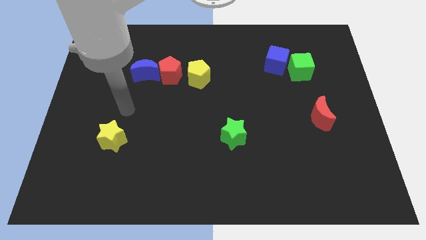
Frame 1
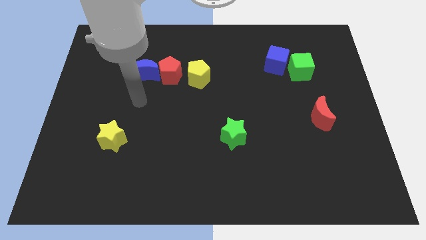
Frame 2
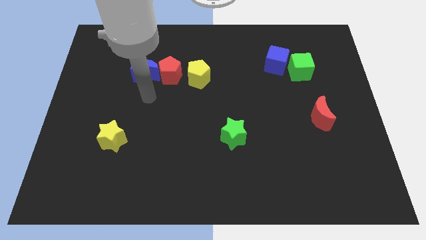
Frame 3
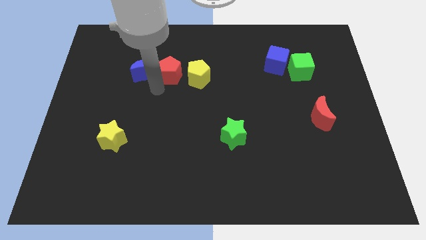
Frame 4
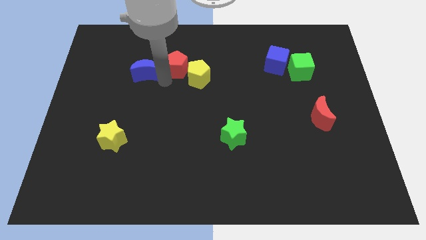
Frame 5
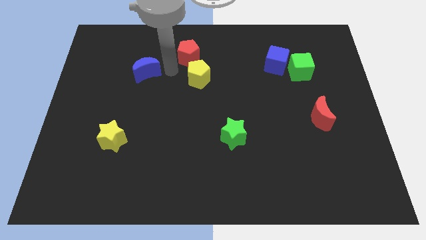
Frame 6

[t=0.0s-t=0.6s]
separate the blue moon from the red pentagon

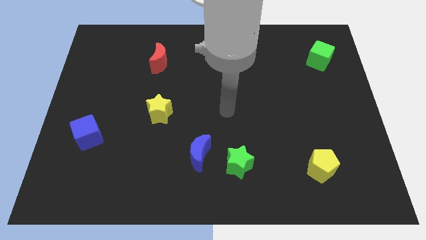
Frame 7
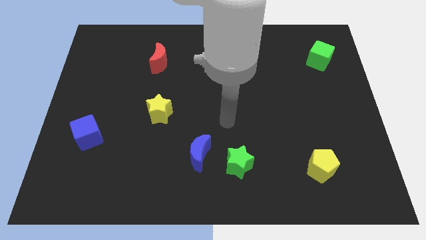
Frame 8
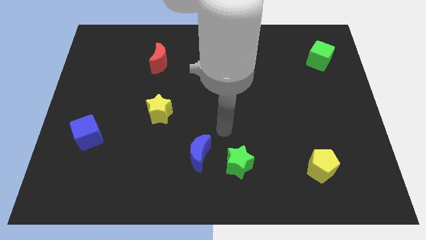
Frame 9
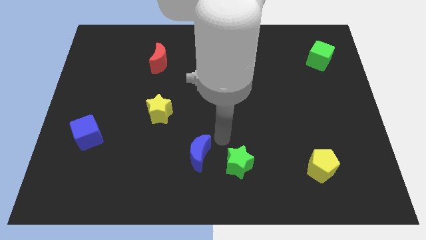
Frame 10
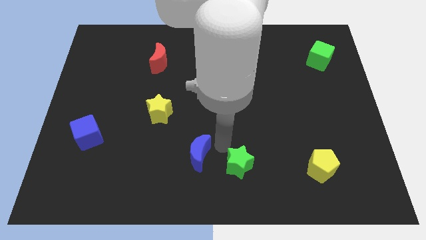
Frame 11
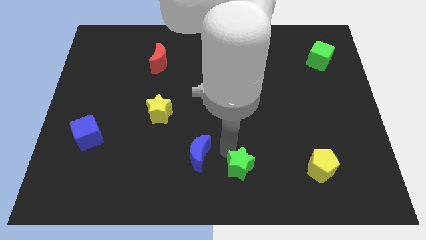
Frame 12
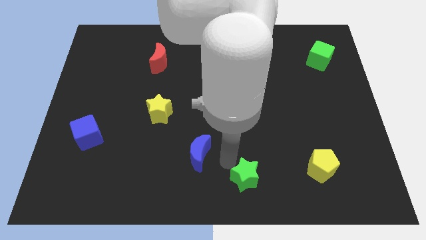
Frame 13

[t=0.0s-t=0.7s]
separate the blue moon from the green star

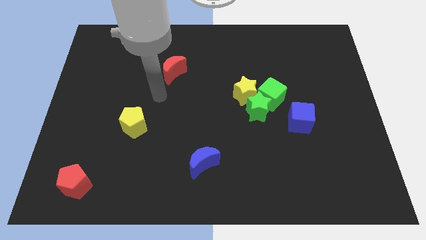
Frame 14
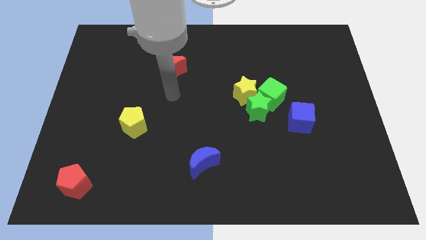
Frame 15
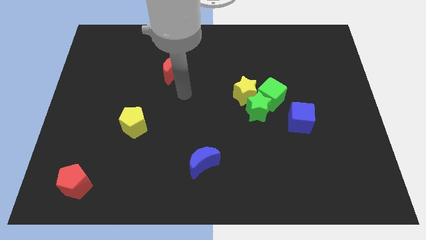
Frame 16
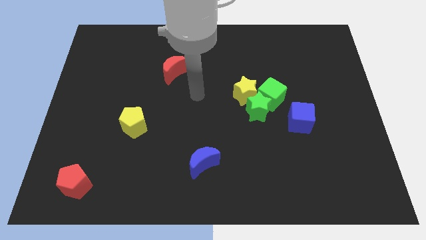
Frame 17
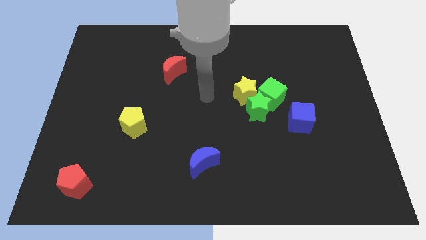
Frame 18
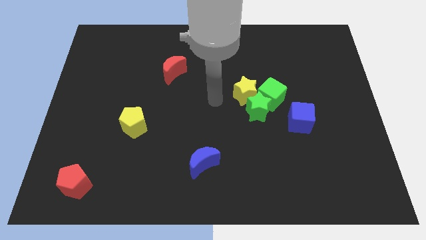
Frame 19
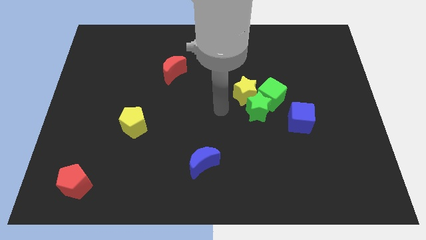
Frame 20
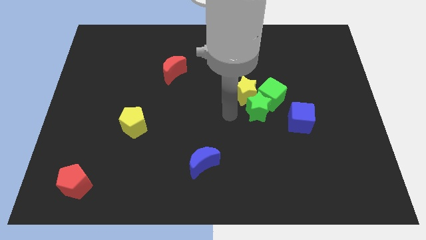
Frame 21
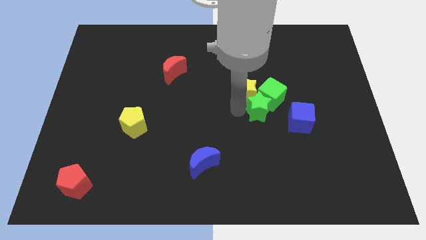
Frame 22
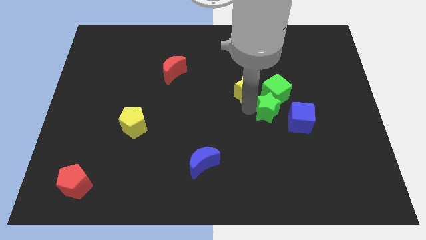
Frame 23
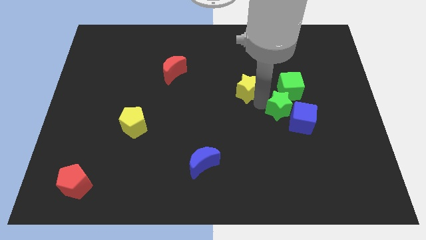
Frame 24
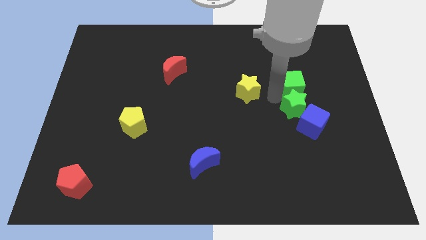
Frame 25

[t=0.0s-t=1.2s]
move the yellow star away from the green star and green cube

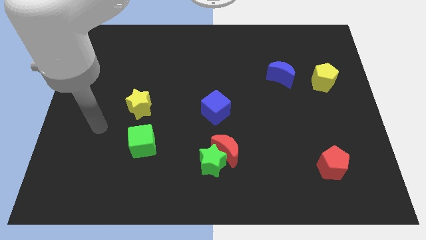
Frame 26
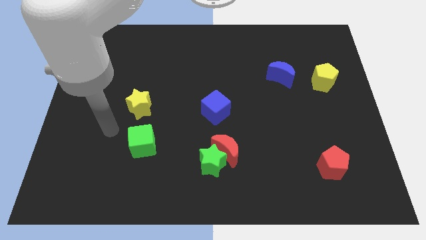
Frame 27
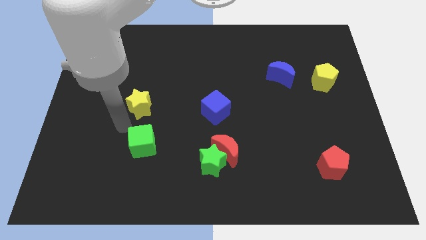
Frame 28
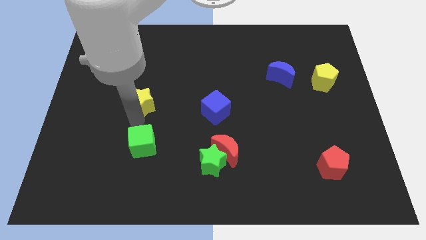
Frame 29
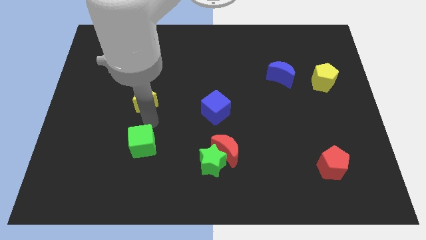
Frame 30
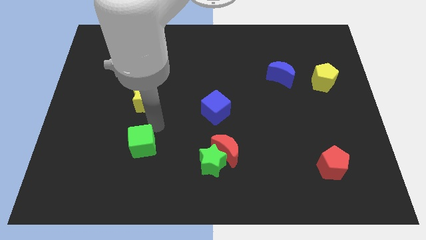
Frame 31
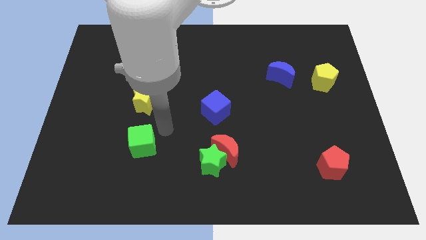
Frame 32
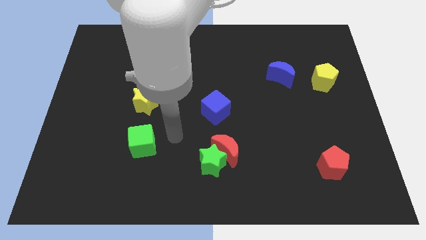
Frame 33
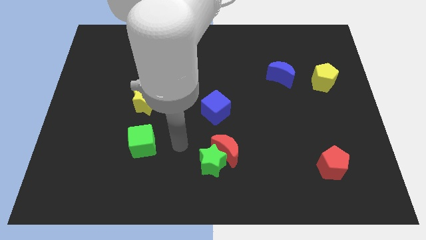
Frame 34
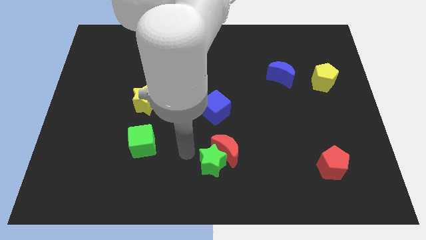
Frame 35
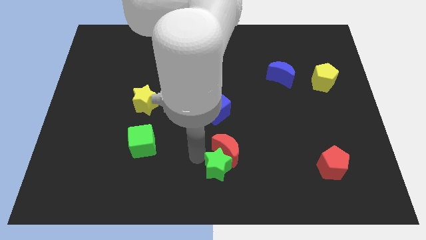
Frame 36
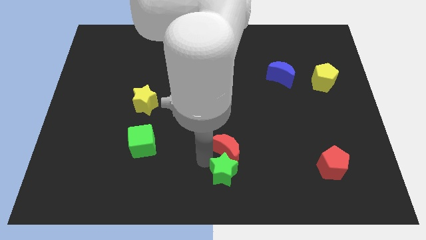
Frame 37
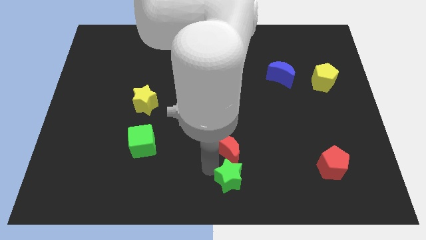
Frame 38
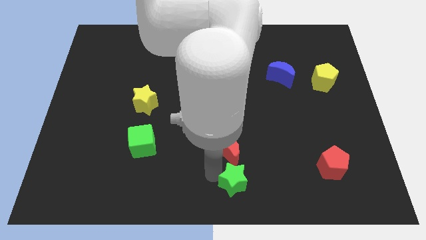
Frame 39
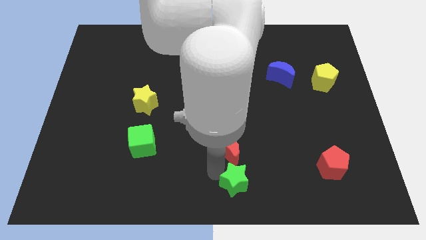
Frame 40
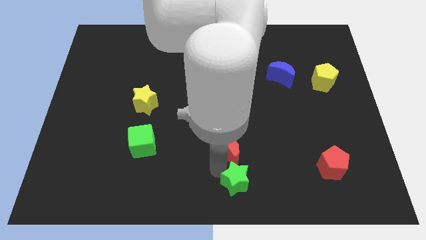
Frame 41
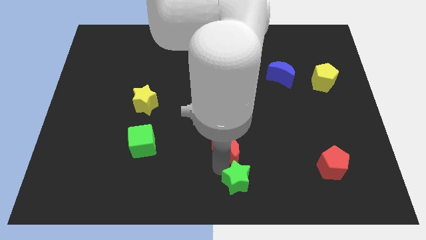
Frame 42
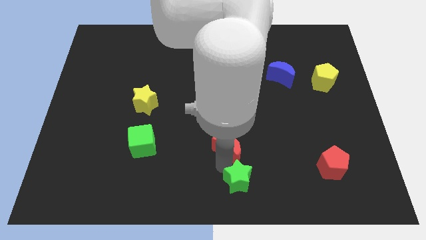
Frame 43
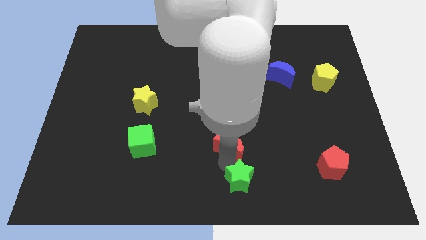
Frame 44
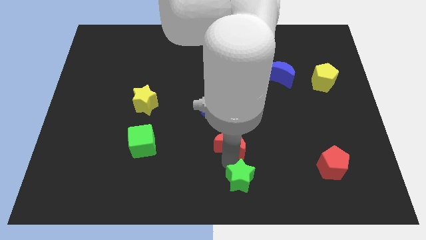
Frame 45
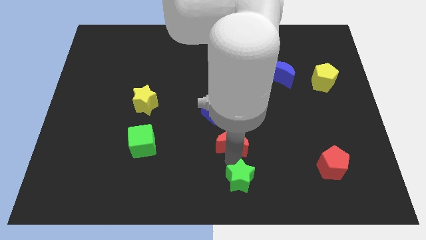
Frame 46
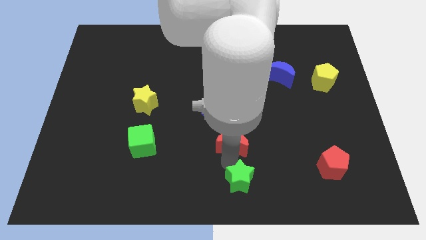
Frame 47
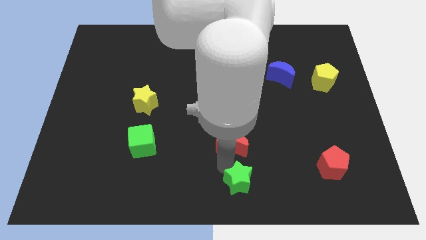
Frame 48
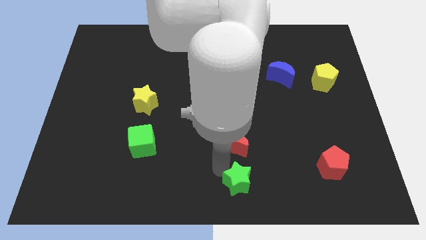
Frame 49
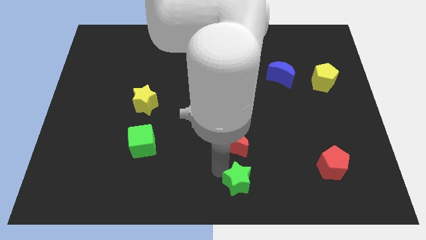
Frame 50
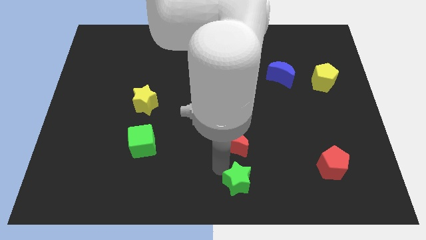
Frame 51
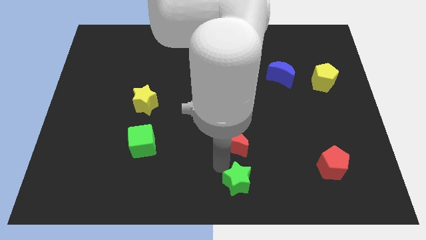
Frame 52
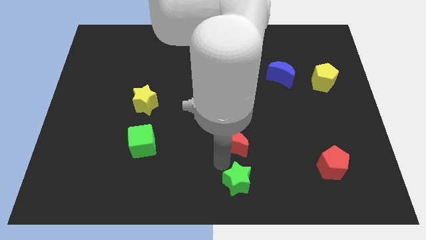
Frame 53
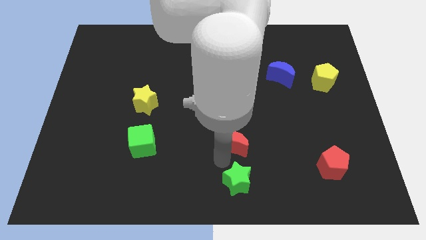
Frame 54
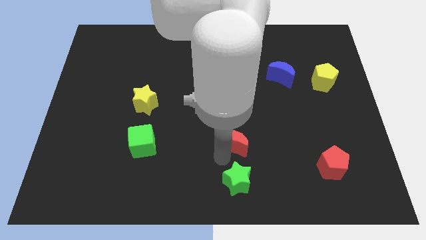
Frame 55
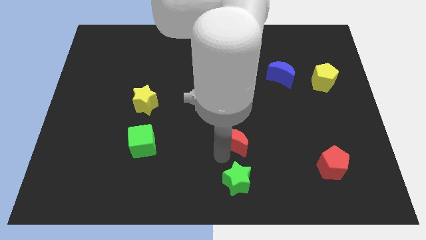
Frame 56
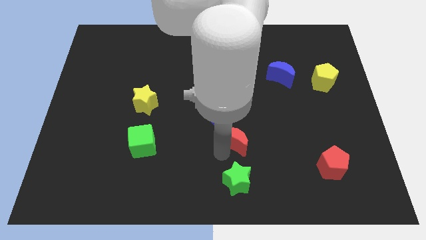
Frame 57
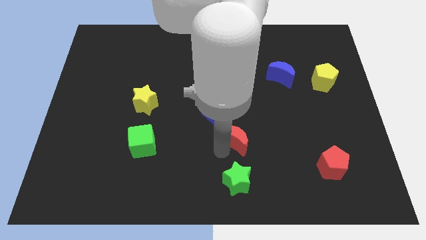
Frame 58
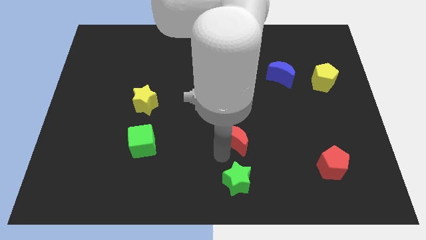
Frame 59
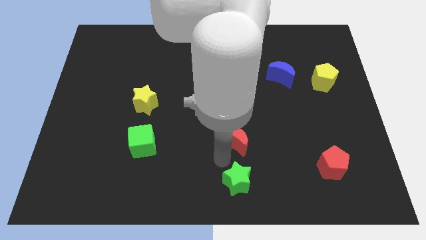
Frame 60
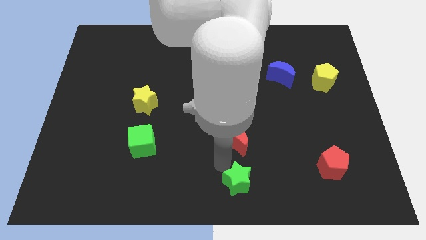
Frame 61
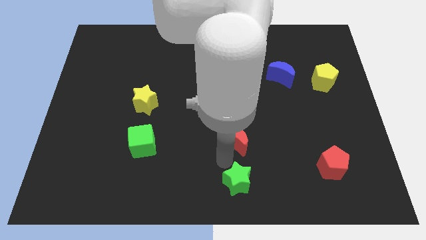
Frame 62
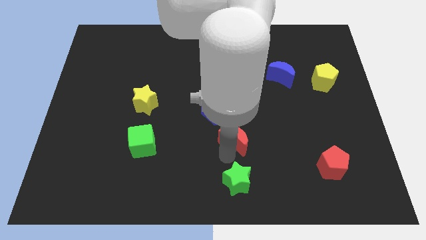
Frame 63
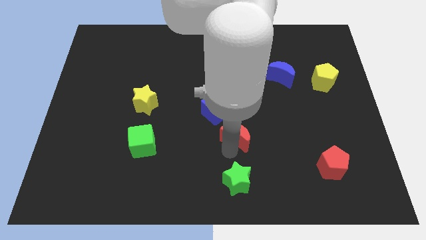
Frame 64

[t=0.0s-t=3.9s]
move the red moon away from the green star

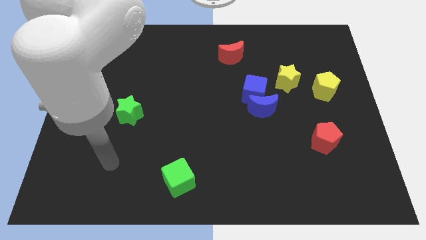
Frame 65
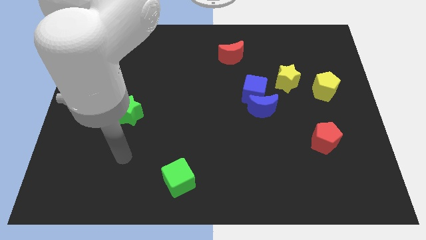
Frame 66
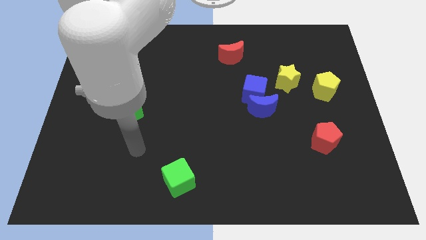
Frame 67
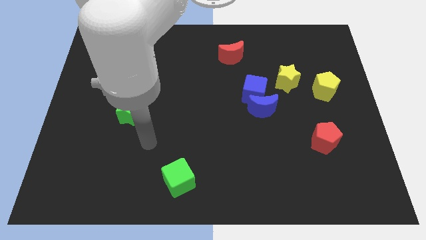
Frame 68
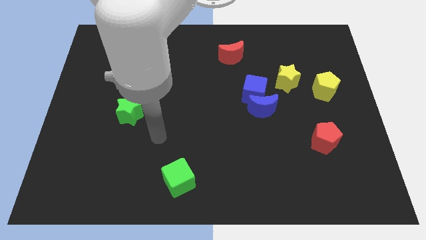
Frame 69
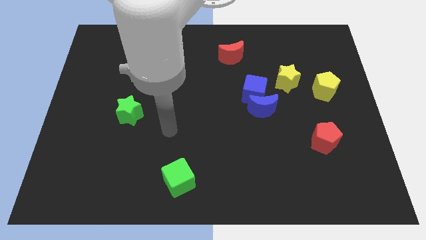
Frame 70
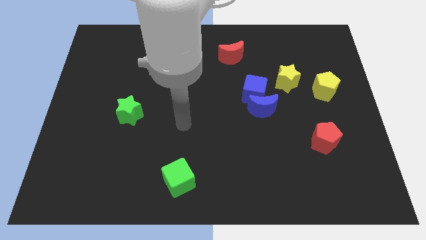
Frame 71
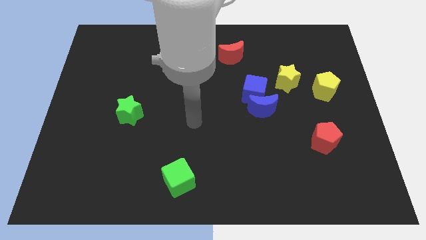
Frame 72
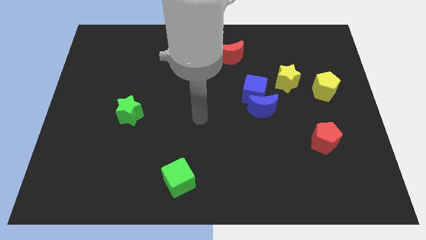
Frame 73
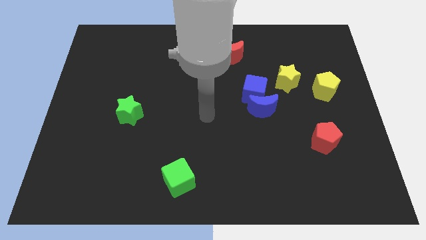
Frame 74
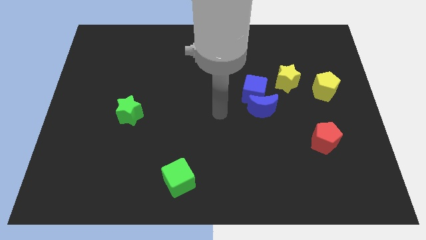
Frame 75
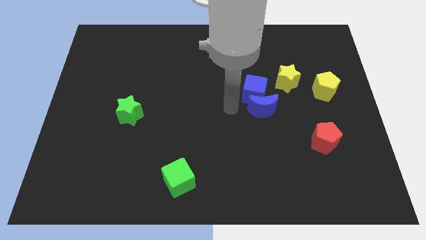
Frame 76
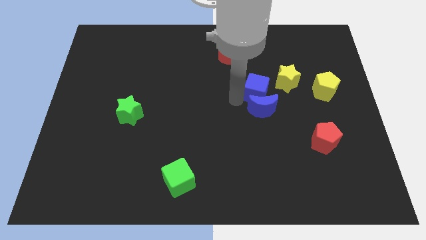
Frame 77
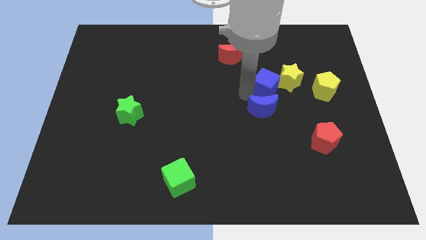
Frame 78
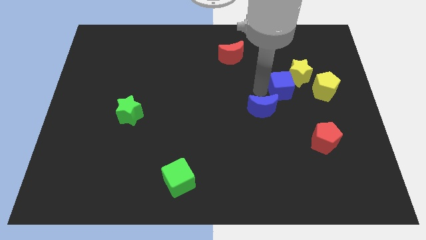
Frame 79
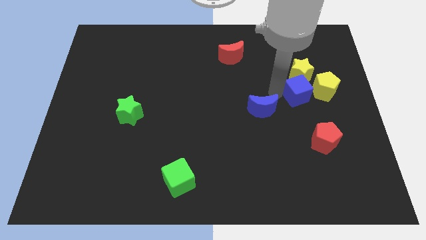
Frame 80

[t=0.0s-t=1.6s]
move the blue moon away from the blue cube

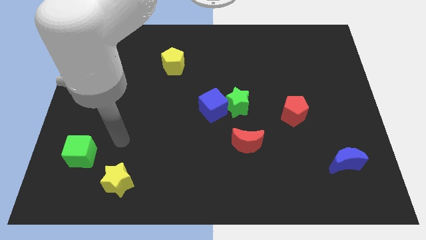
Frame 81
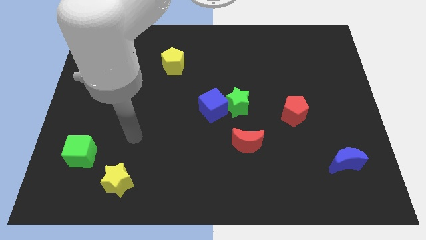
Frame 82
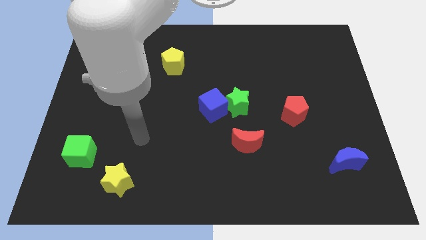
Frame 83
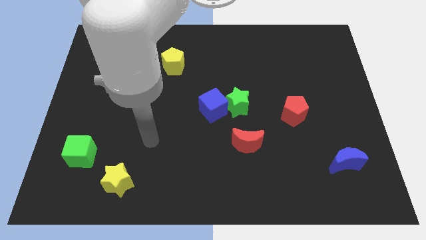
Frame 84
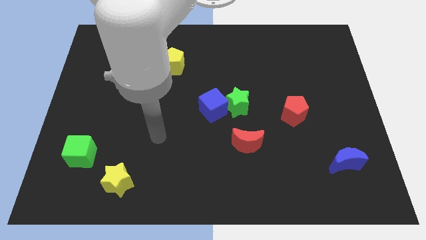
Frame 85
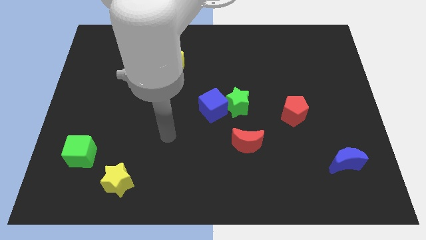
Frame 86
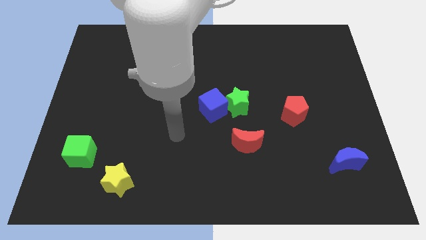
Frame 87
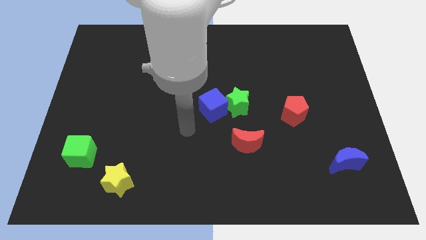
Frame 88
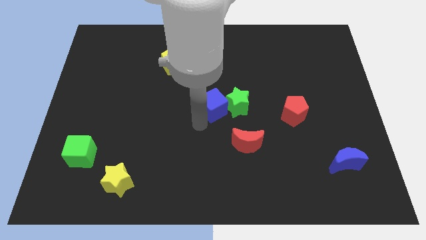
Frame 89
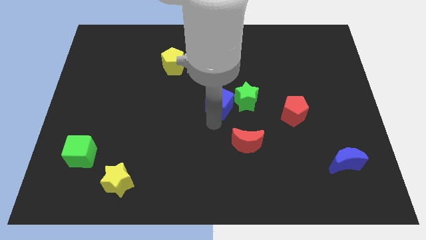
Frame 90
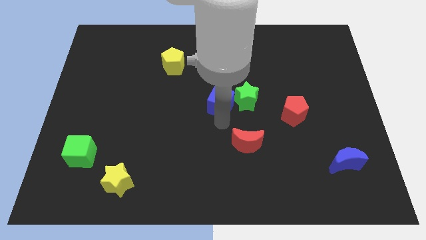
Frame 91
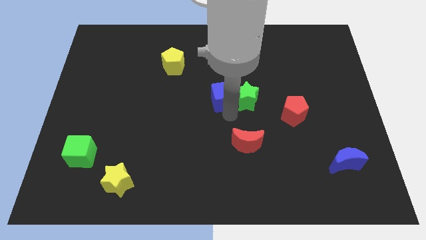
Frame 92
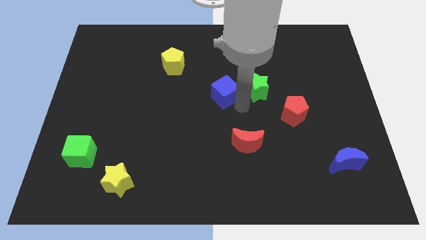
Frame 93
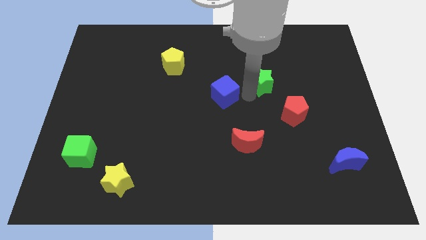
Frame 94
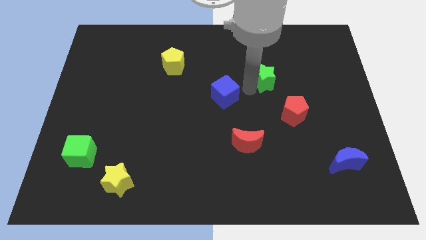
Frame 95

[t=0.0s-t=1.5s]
pull the blue cube apart from the green star
